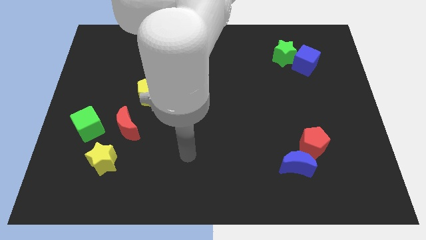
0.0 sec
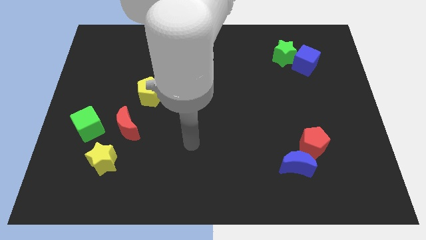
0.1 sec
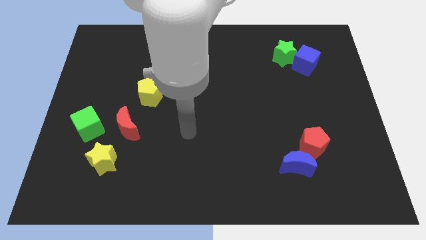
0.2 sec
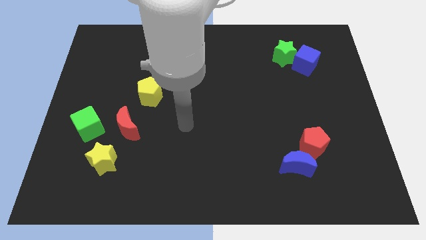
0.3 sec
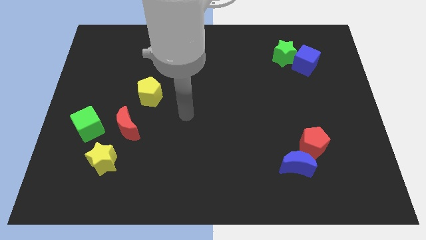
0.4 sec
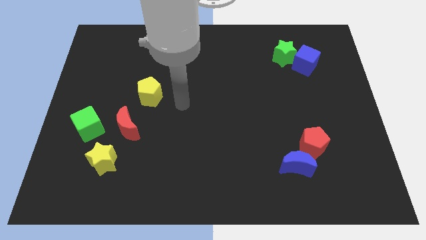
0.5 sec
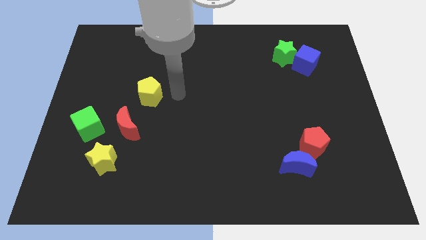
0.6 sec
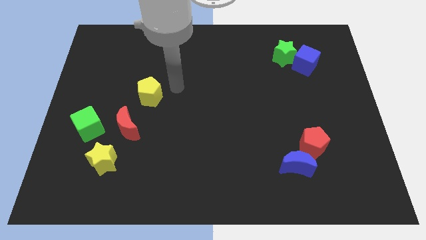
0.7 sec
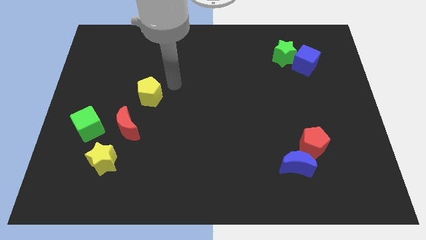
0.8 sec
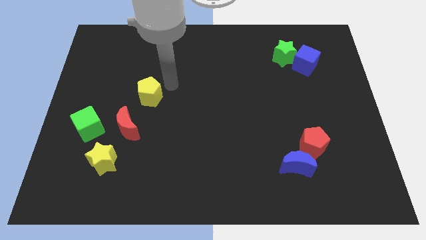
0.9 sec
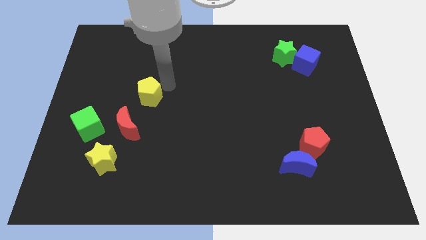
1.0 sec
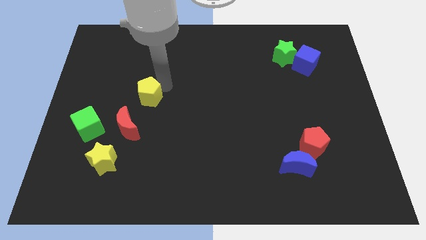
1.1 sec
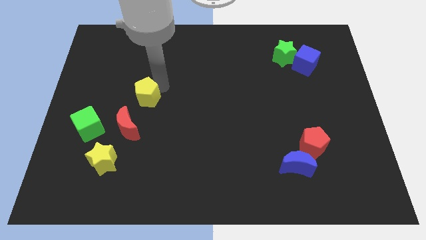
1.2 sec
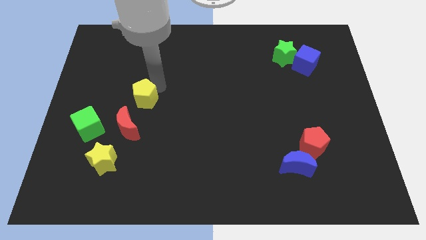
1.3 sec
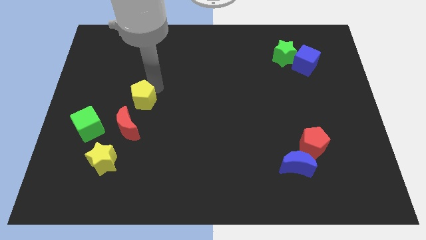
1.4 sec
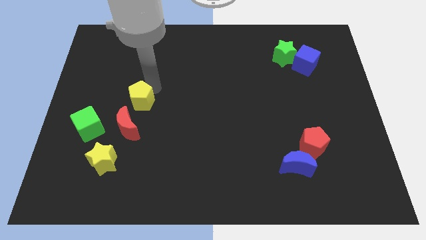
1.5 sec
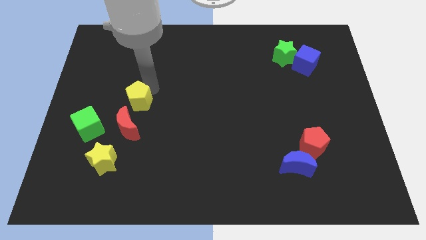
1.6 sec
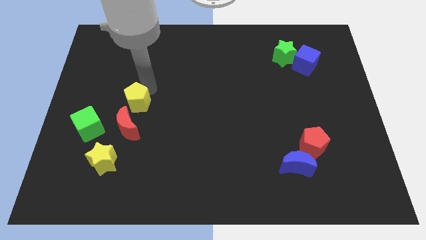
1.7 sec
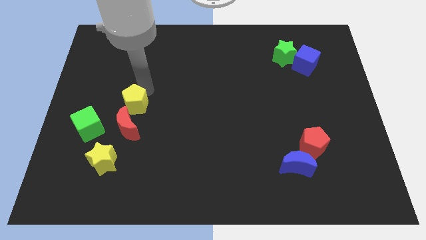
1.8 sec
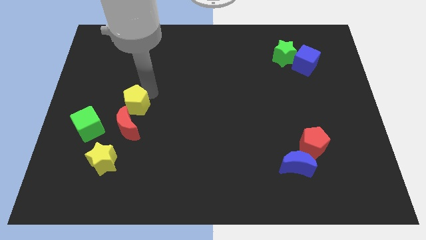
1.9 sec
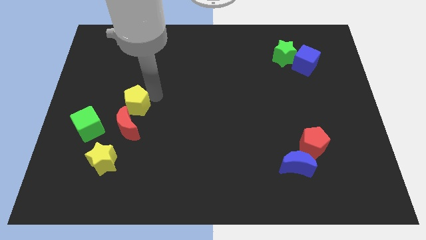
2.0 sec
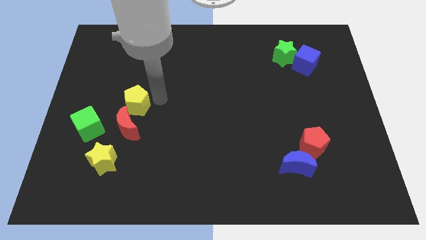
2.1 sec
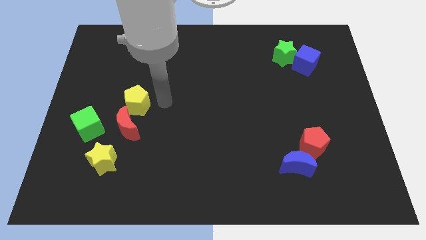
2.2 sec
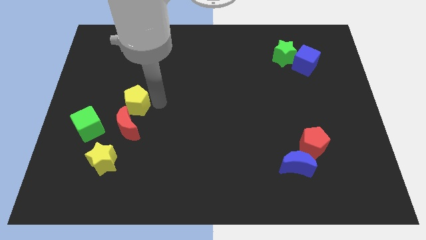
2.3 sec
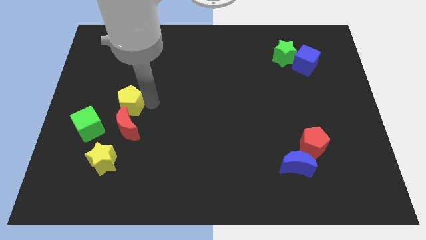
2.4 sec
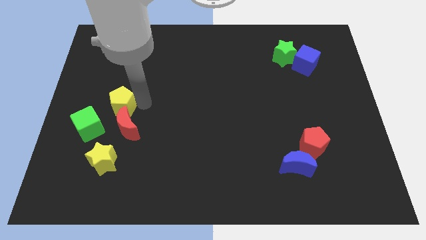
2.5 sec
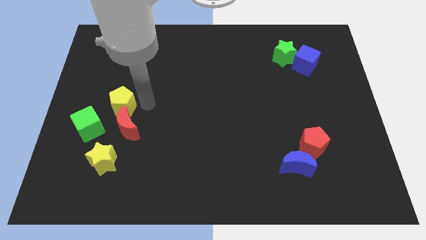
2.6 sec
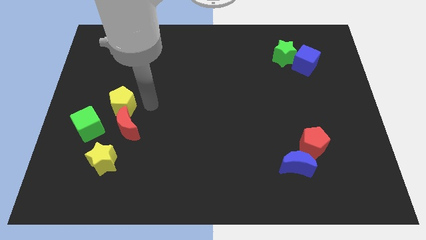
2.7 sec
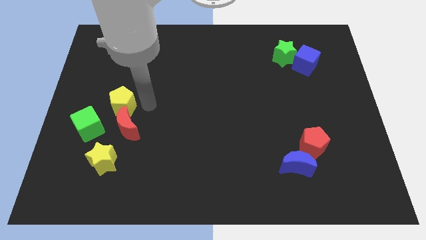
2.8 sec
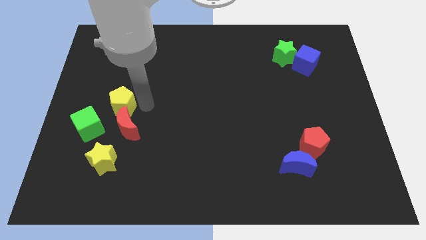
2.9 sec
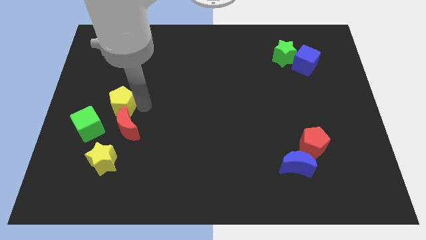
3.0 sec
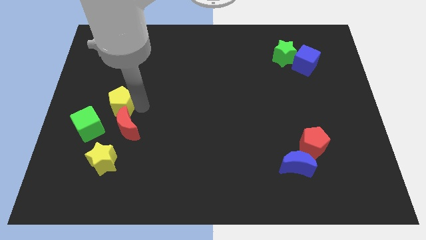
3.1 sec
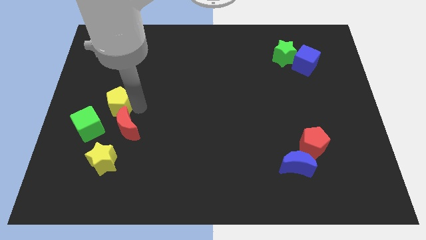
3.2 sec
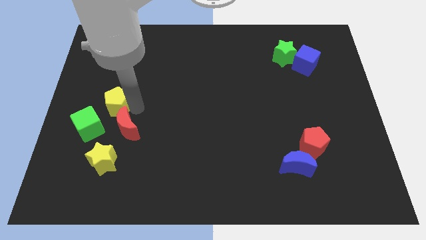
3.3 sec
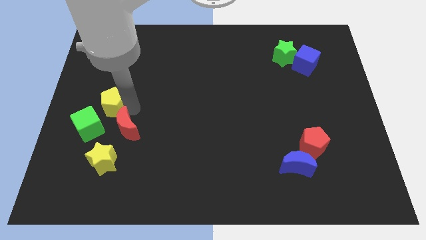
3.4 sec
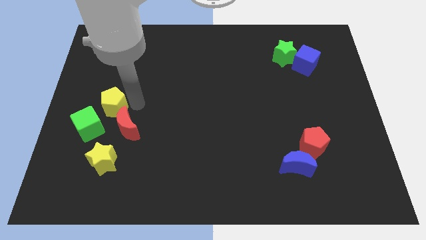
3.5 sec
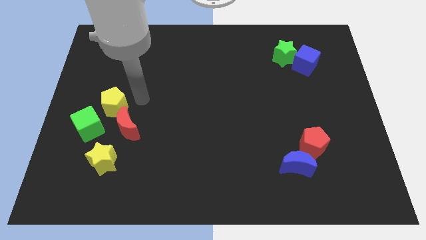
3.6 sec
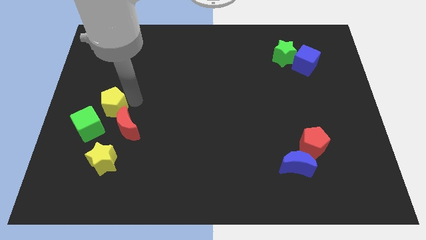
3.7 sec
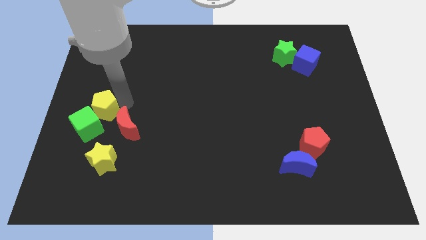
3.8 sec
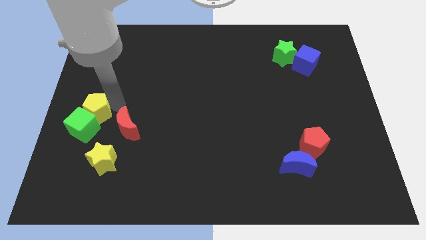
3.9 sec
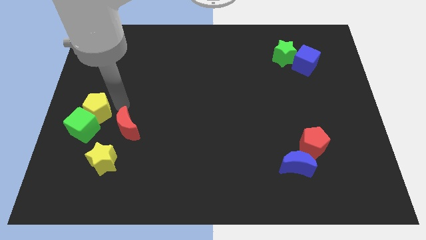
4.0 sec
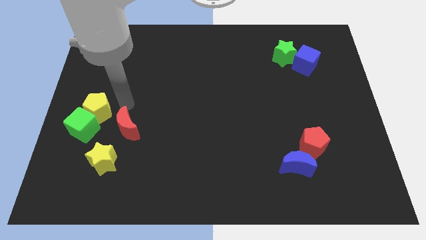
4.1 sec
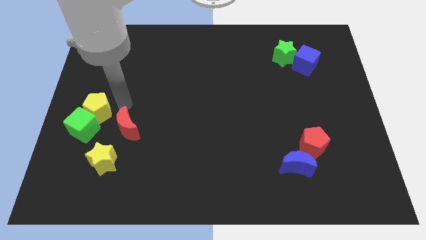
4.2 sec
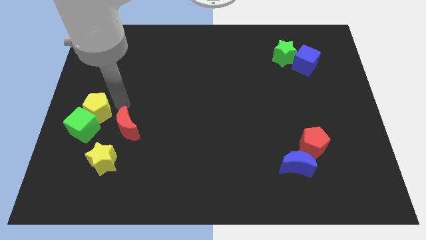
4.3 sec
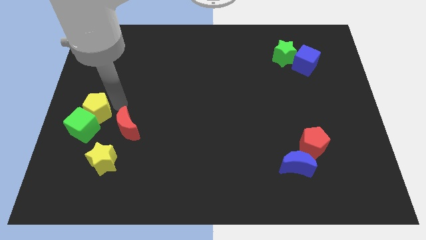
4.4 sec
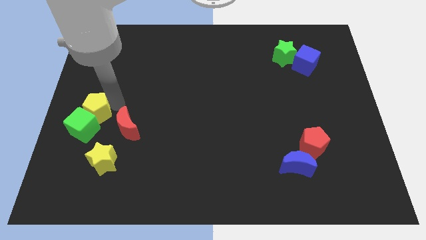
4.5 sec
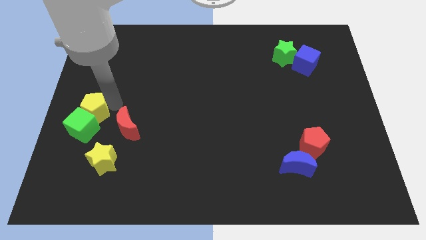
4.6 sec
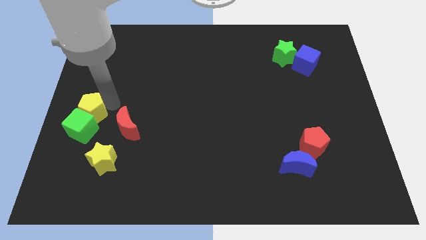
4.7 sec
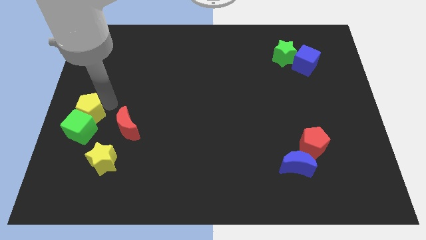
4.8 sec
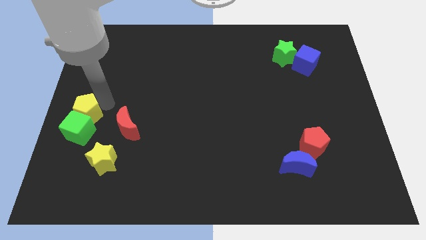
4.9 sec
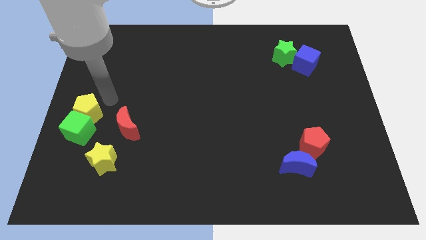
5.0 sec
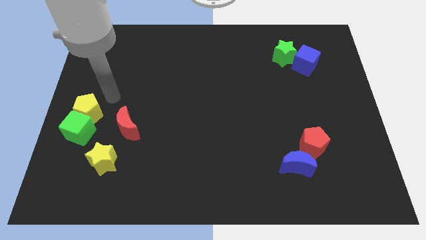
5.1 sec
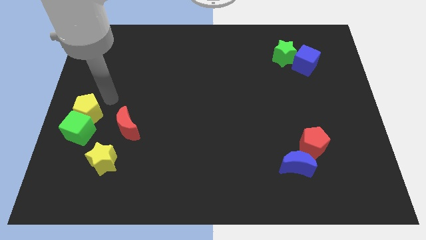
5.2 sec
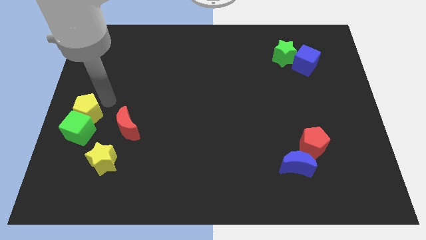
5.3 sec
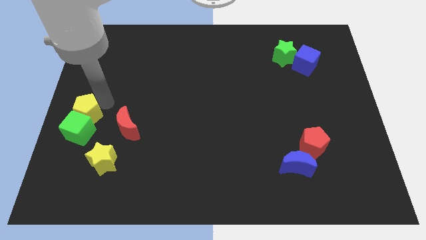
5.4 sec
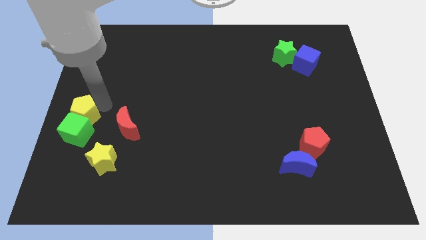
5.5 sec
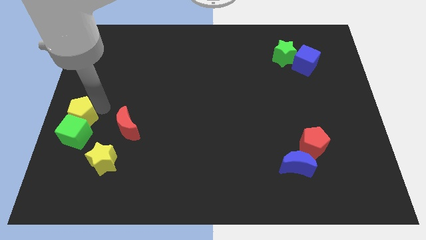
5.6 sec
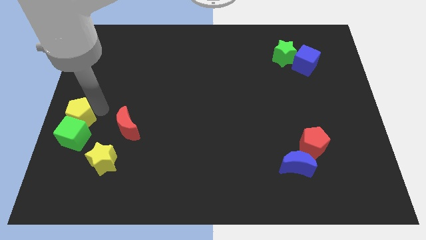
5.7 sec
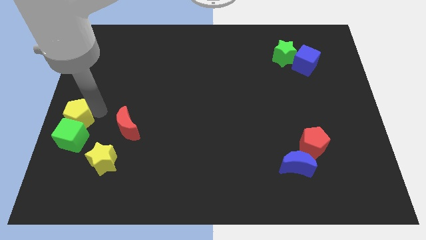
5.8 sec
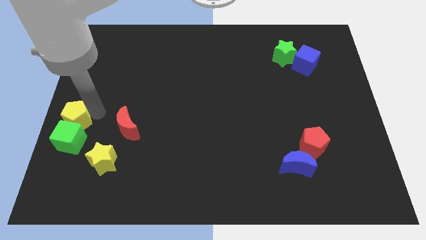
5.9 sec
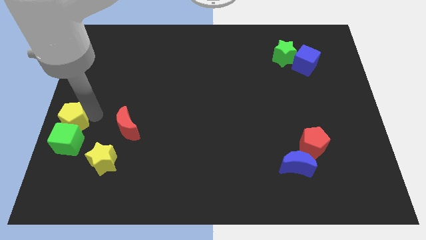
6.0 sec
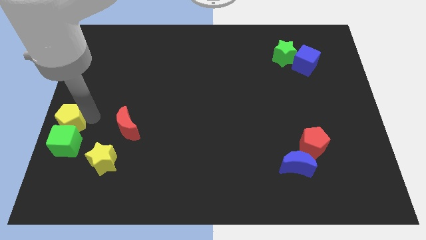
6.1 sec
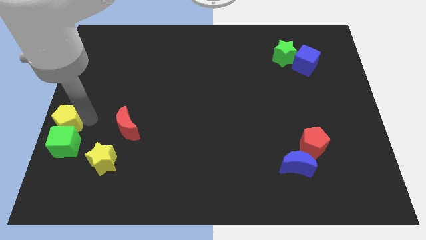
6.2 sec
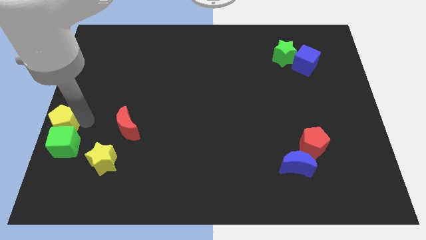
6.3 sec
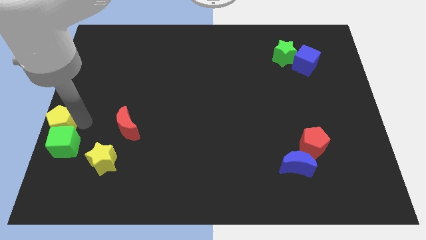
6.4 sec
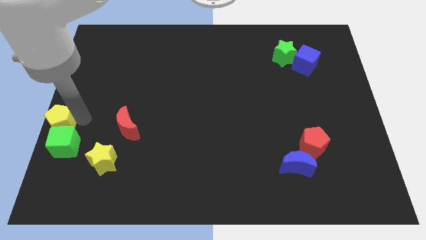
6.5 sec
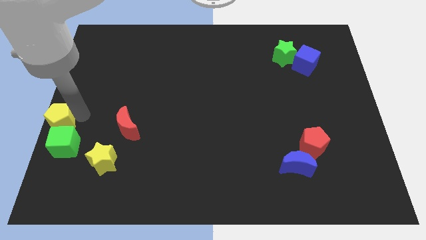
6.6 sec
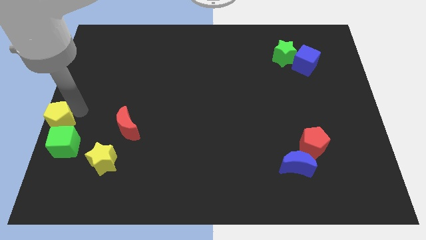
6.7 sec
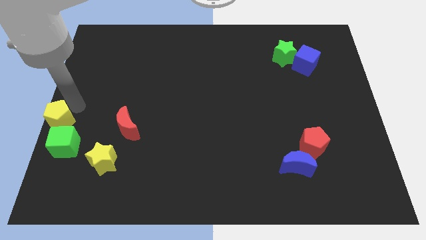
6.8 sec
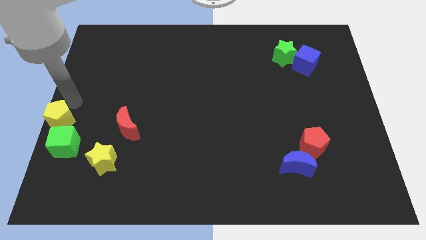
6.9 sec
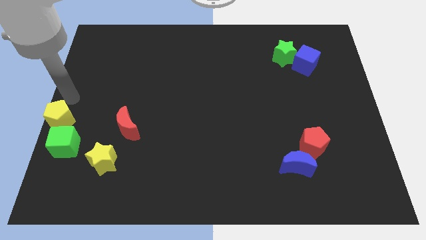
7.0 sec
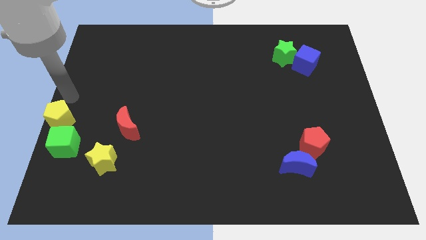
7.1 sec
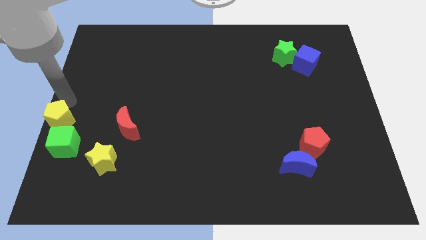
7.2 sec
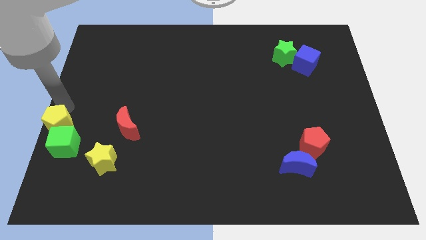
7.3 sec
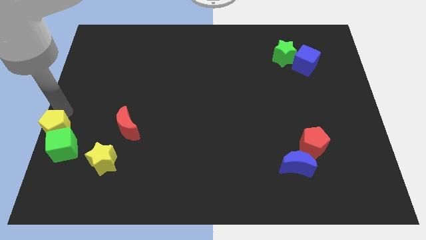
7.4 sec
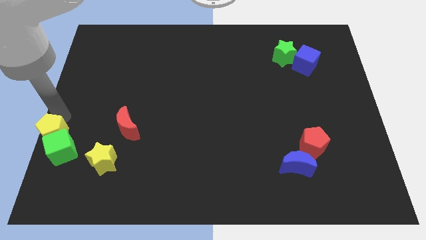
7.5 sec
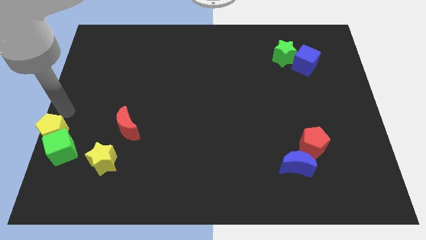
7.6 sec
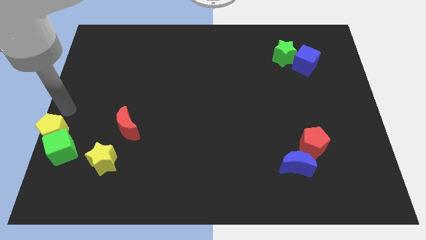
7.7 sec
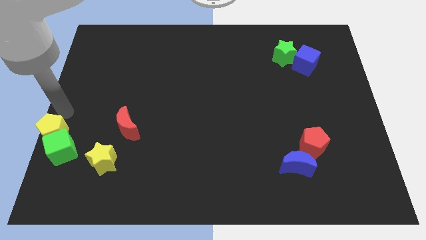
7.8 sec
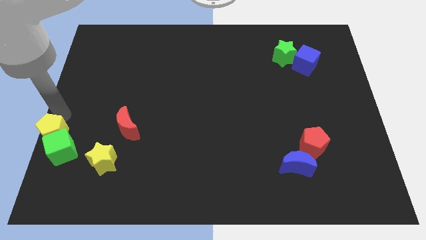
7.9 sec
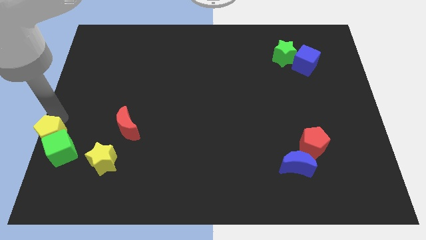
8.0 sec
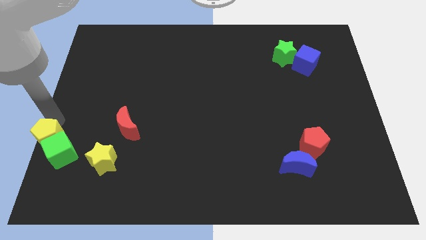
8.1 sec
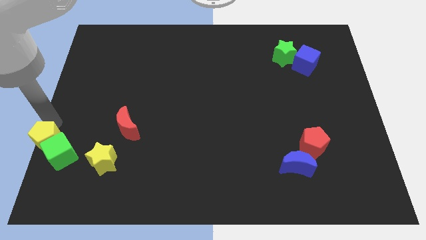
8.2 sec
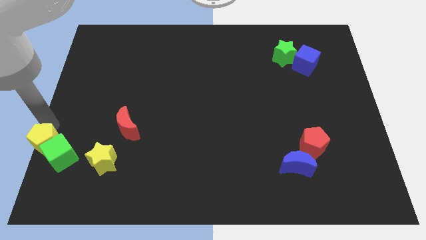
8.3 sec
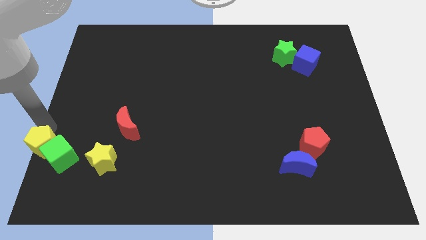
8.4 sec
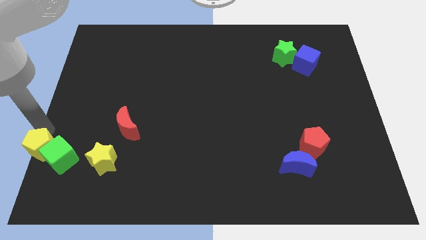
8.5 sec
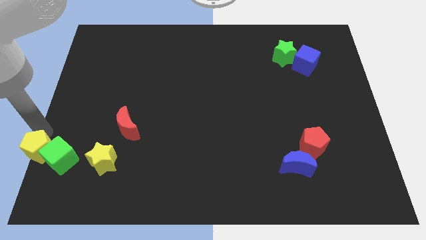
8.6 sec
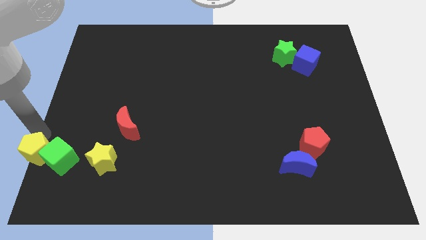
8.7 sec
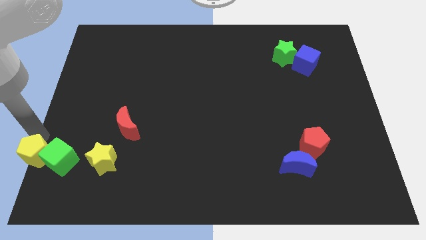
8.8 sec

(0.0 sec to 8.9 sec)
push the yellow pentagon to the bottom left
